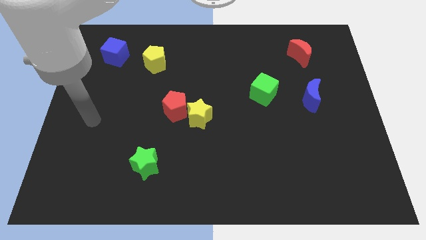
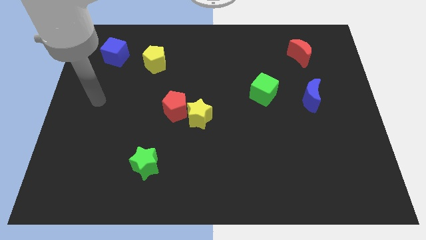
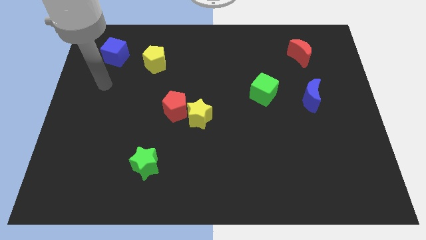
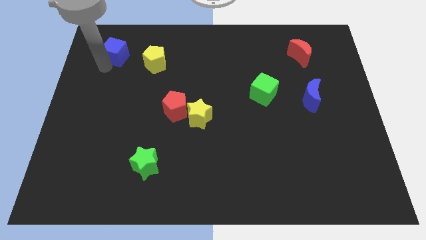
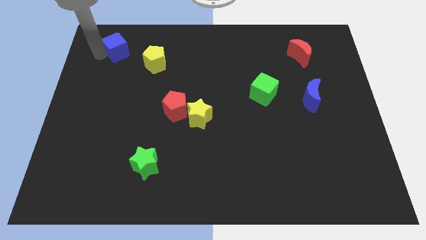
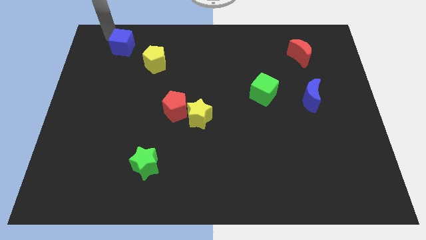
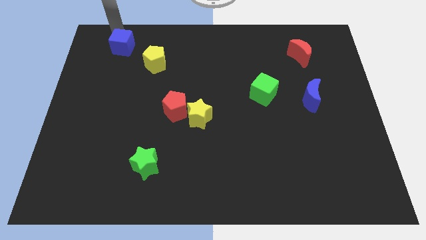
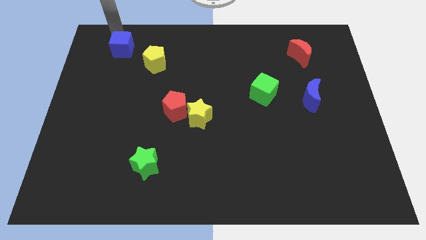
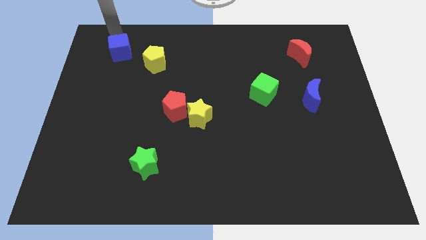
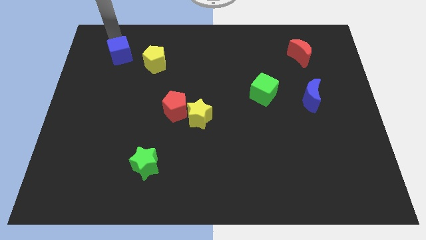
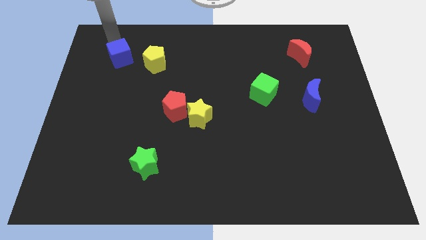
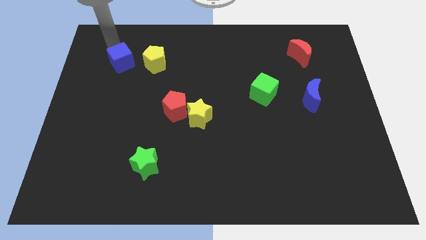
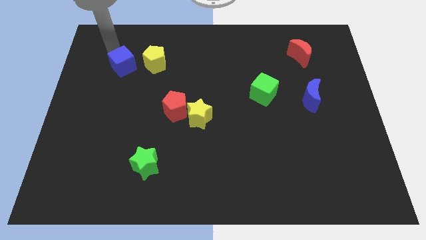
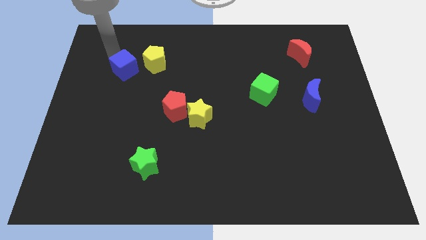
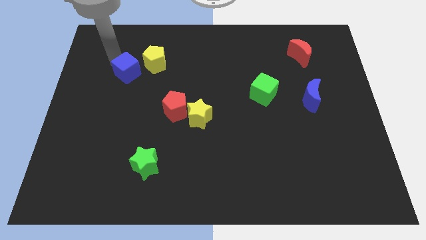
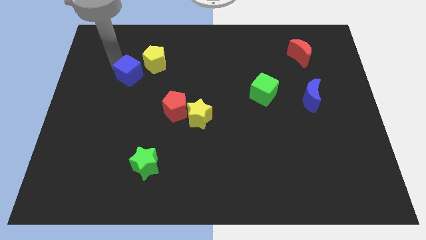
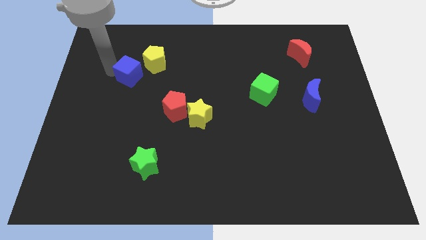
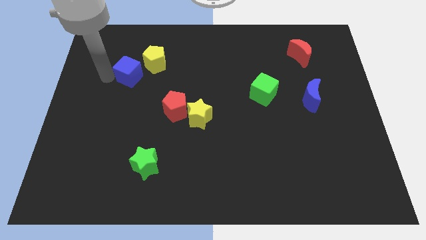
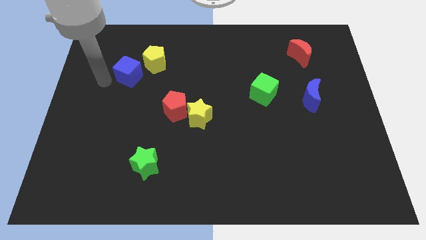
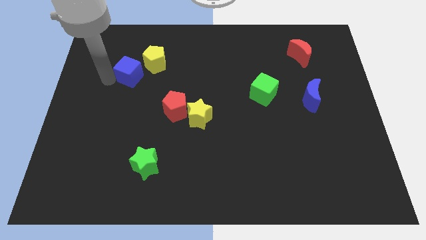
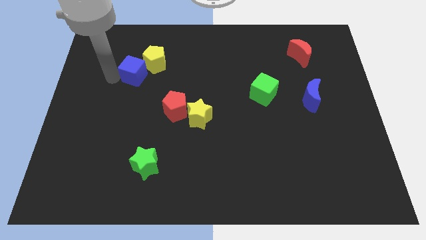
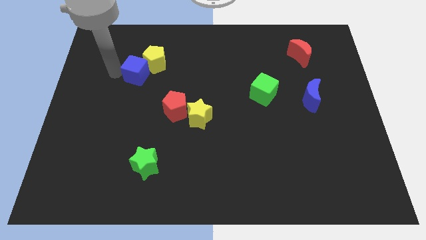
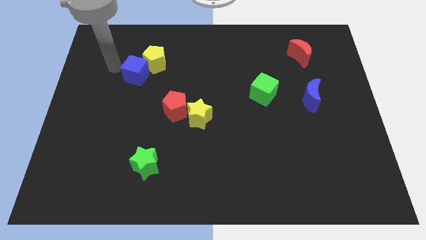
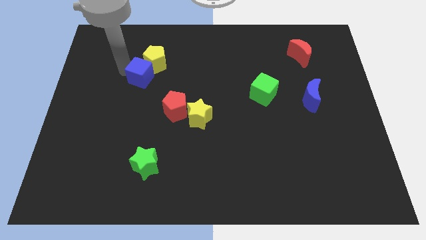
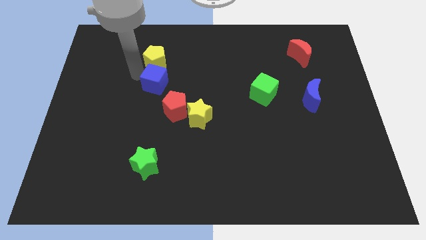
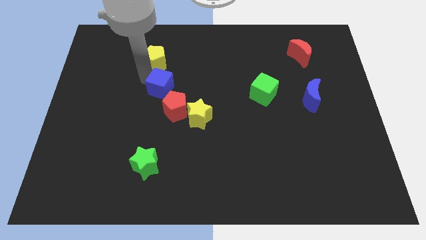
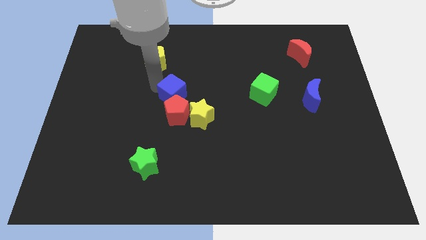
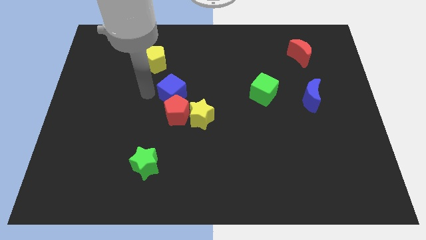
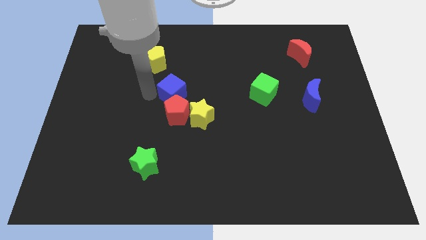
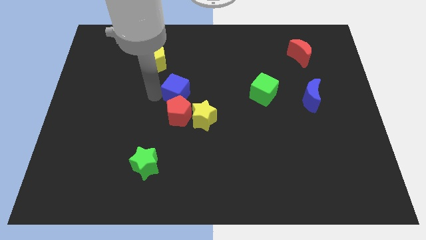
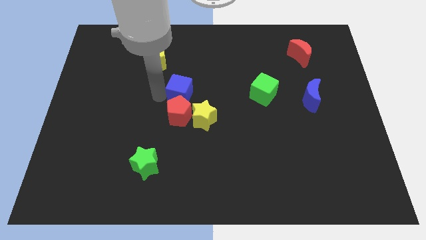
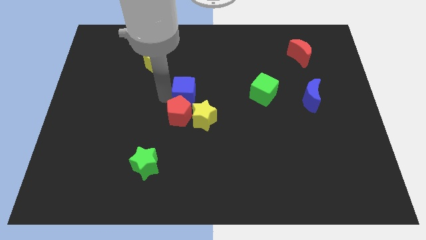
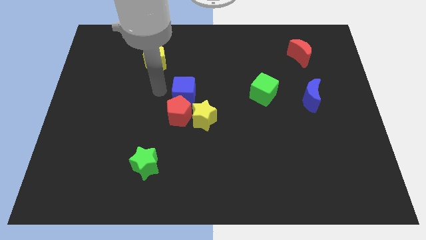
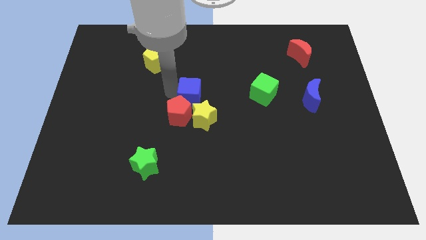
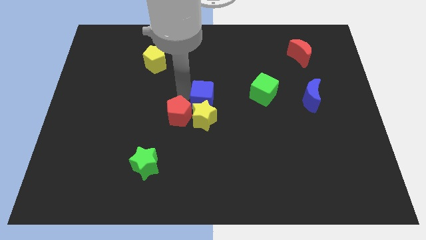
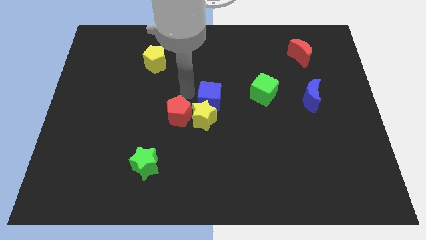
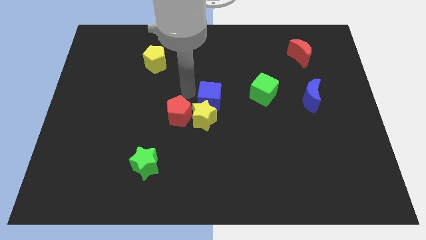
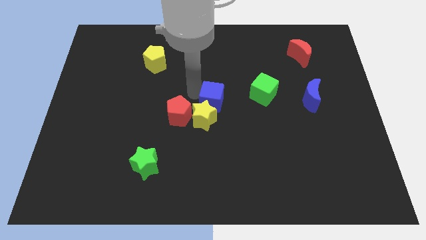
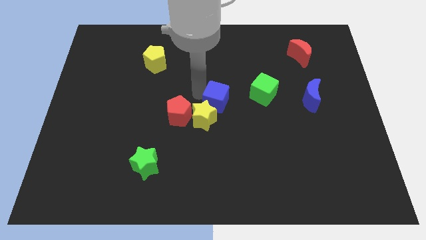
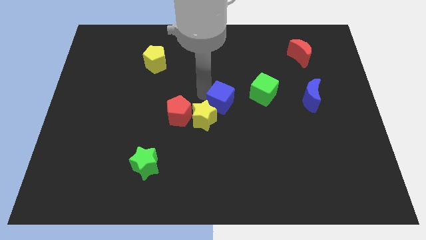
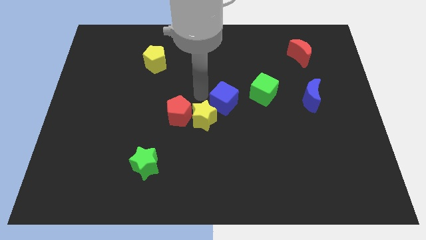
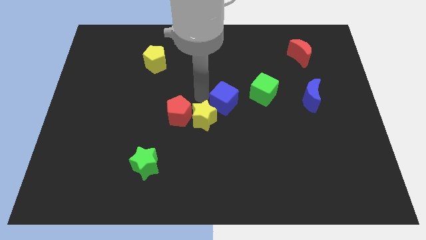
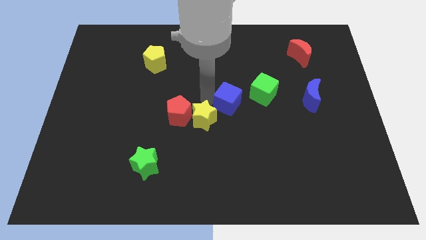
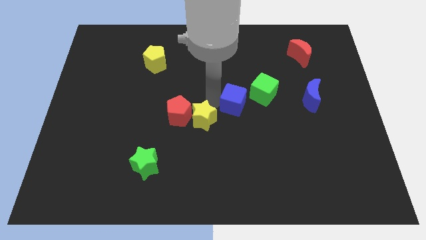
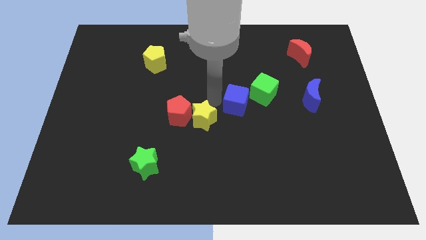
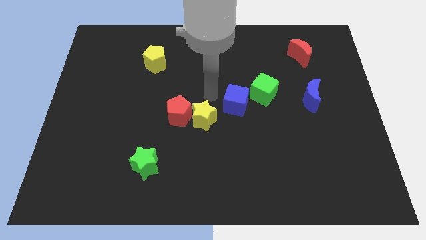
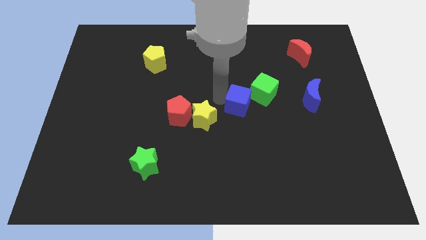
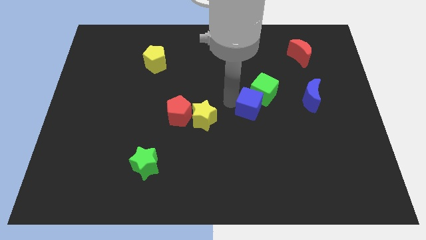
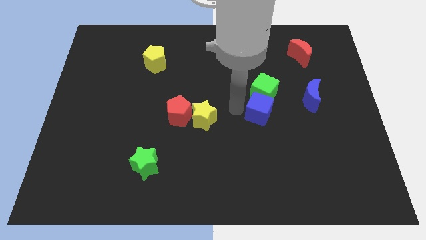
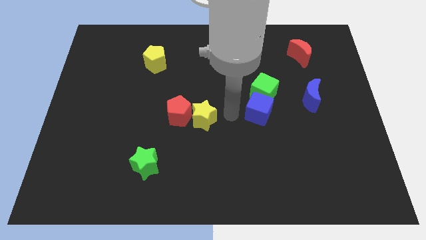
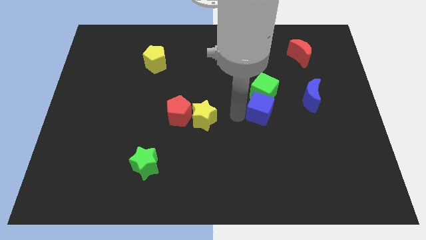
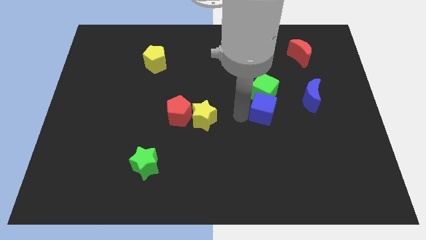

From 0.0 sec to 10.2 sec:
push the blue cube to the bottom right side of the green cube

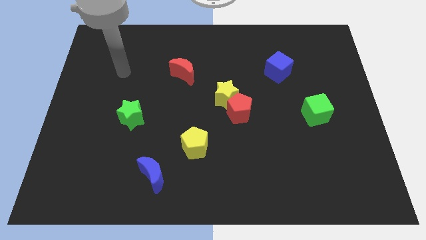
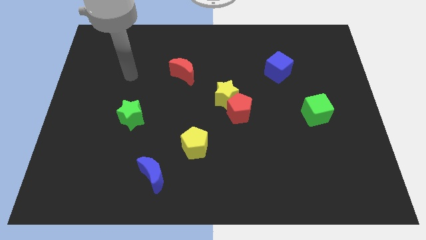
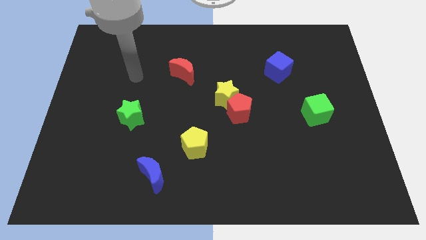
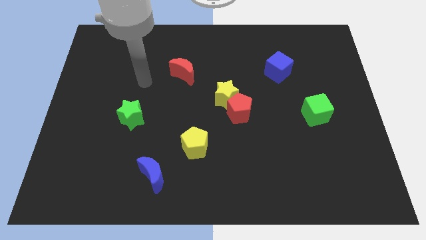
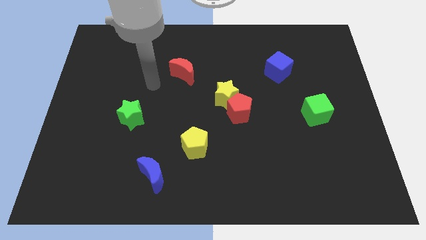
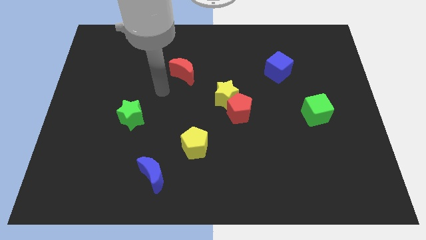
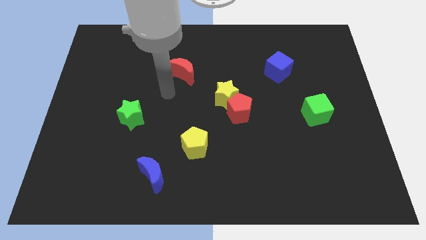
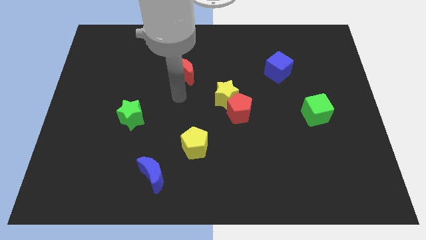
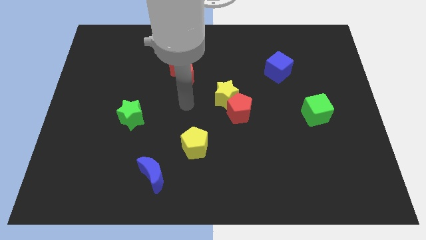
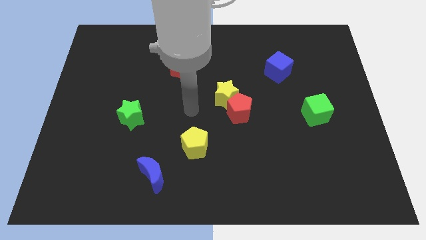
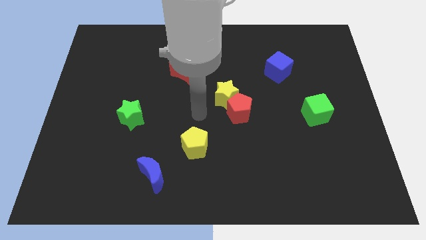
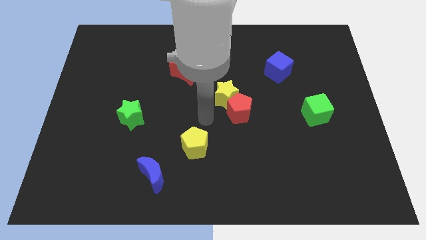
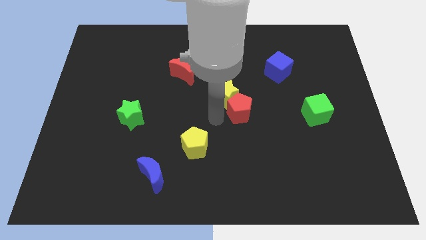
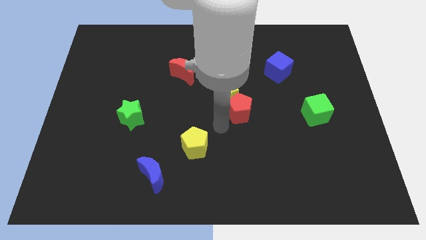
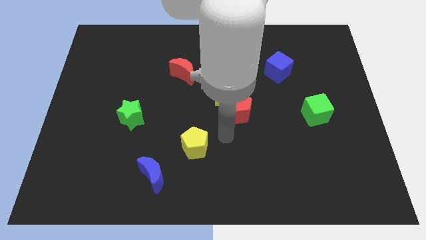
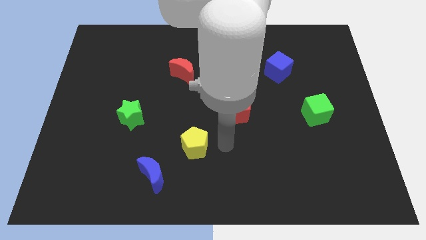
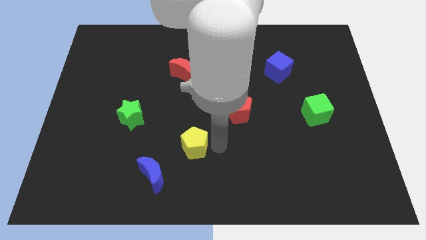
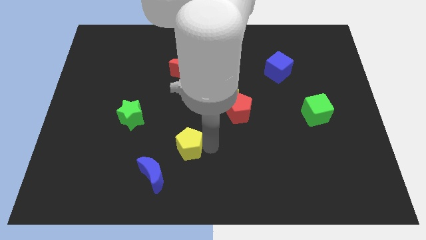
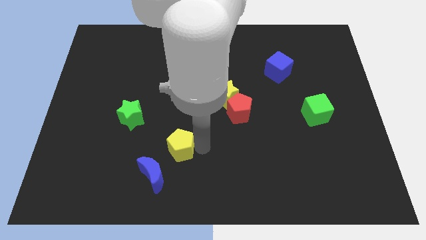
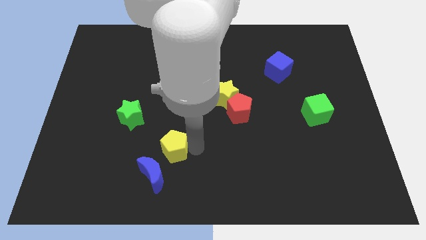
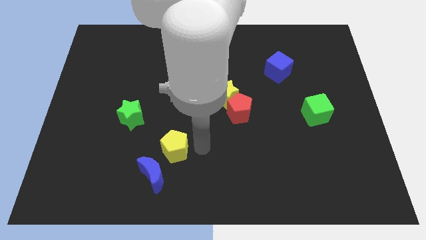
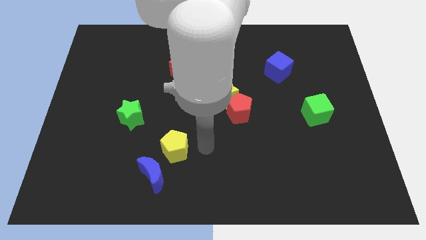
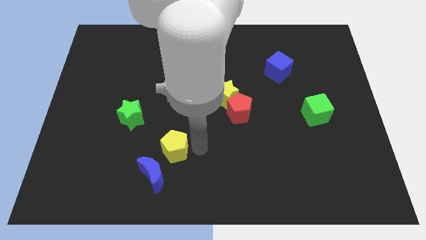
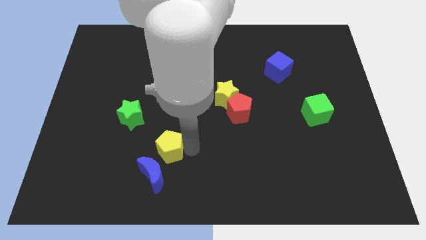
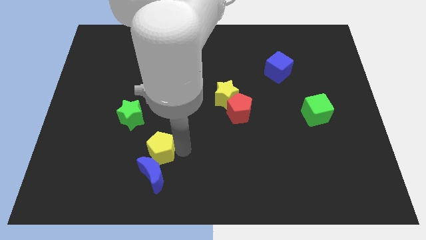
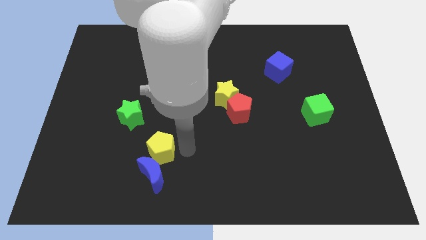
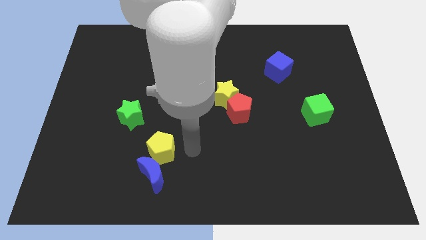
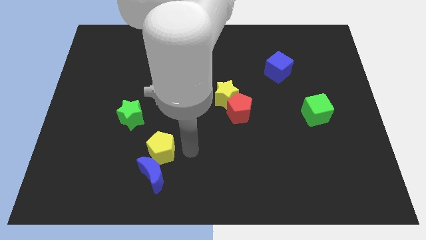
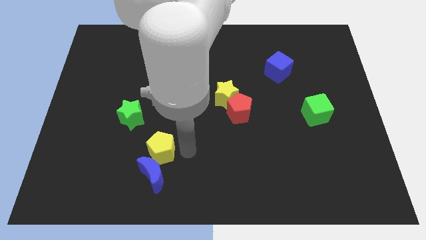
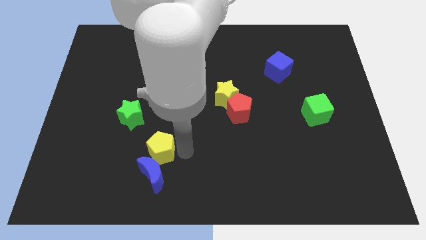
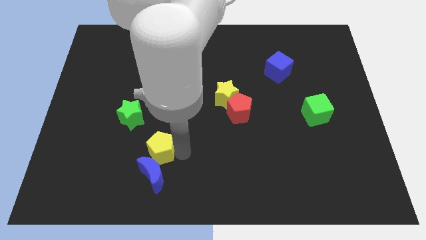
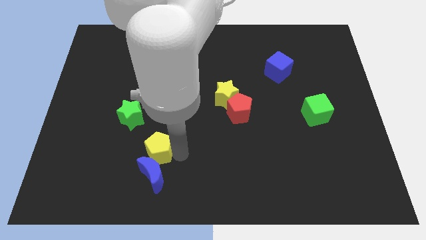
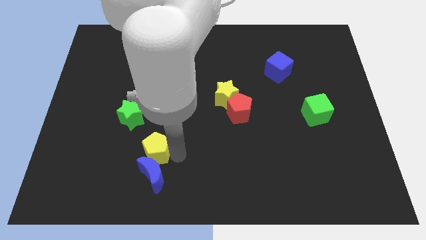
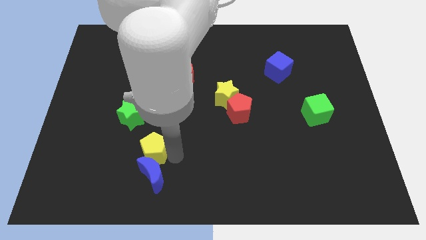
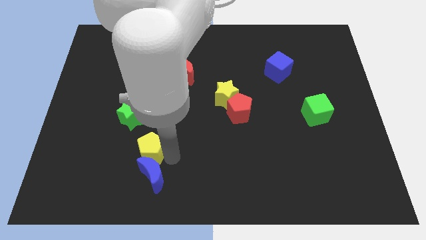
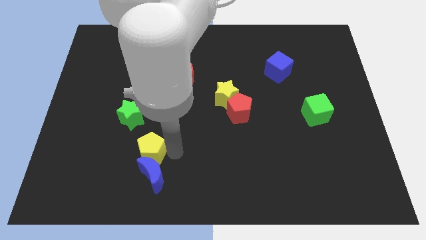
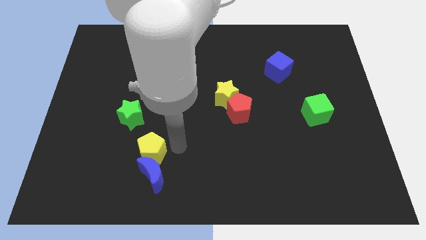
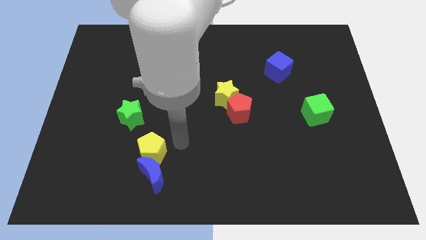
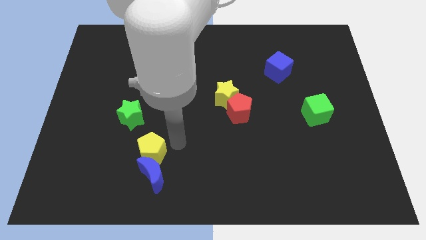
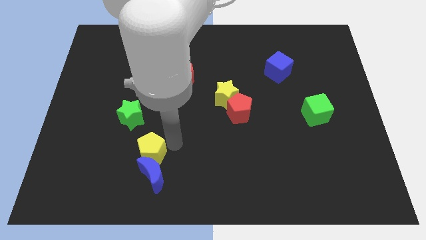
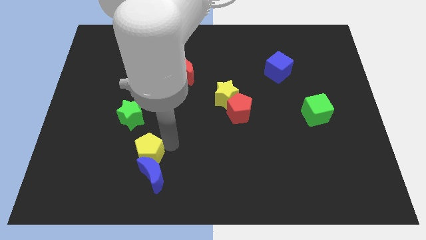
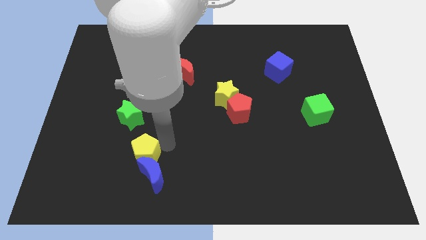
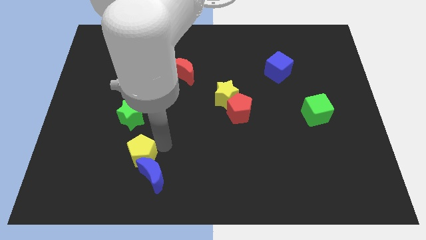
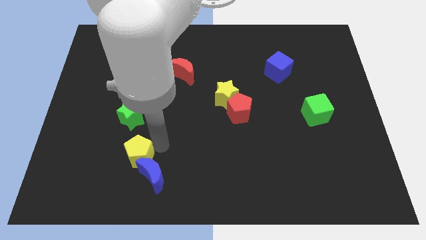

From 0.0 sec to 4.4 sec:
push the yellow pentagon to the left side of the blue moon
